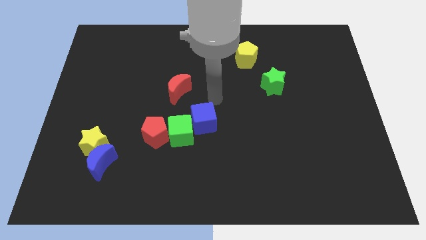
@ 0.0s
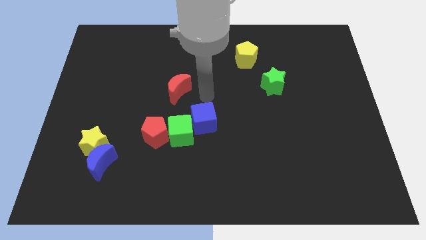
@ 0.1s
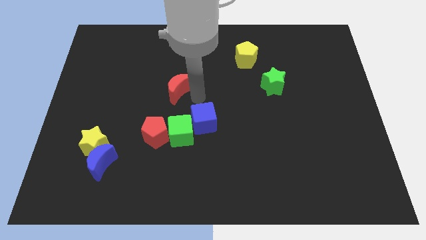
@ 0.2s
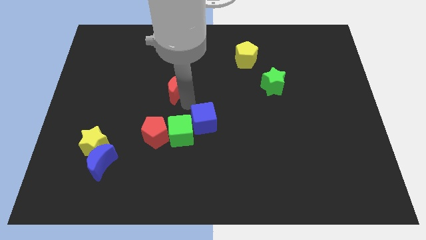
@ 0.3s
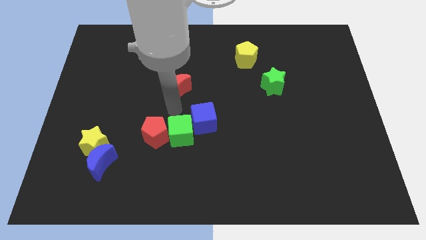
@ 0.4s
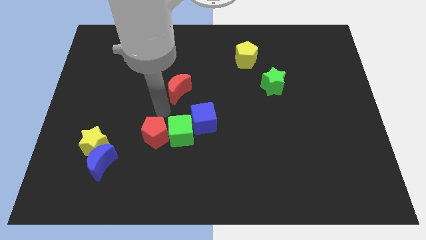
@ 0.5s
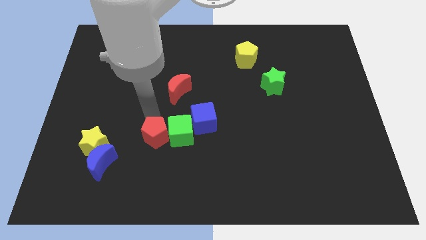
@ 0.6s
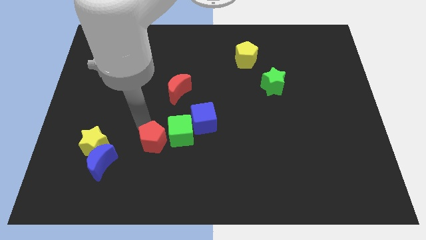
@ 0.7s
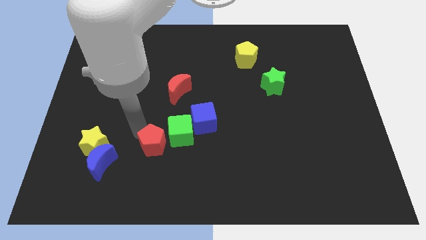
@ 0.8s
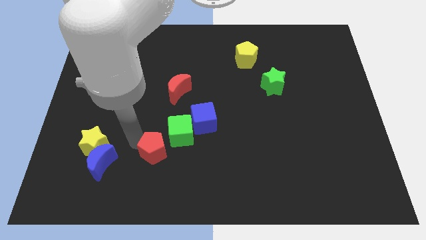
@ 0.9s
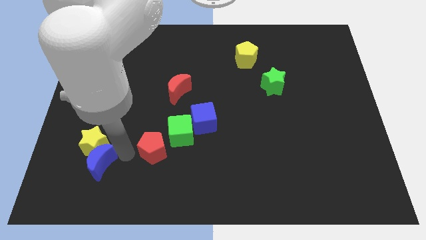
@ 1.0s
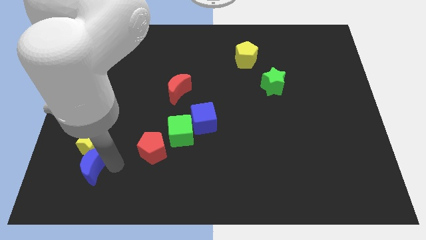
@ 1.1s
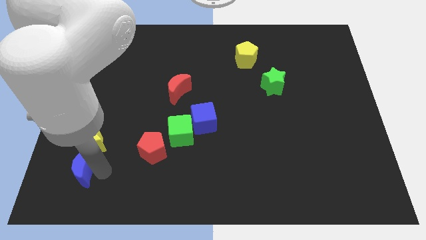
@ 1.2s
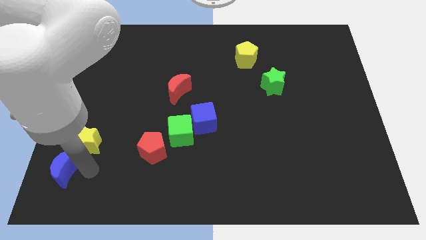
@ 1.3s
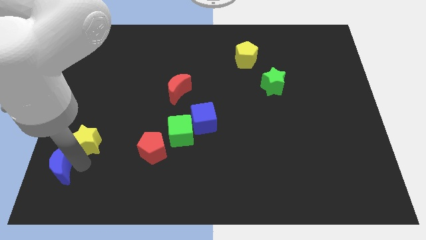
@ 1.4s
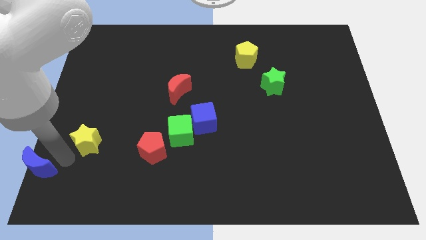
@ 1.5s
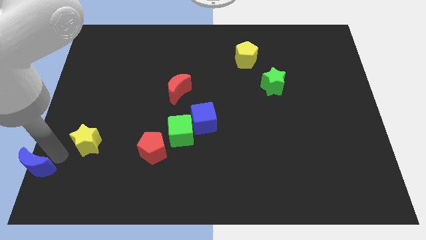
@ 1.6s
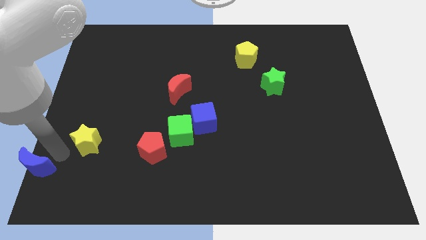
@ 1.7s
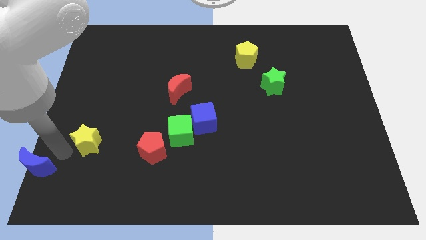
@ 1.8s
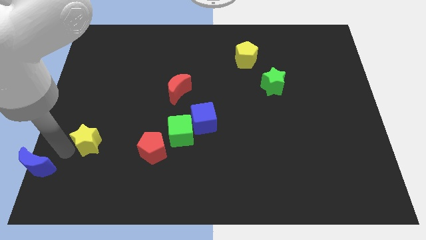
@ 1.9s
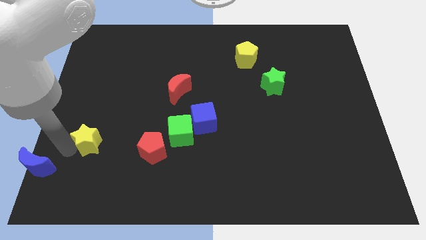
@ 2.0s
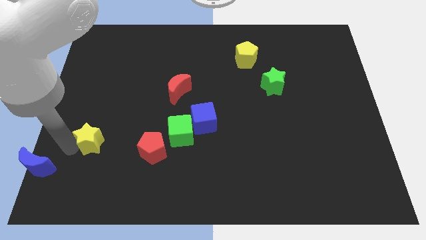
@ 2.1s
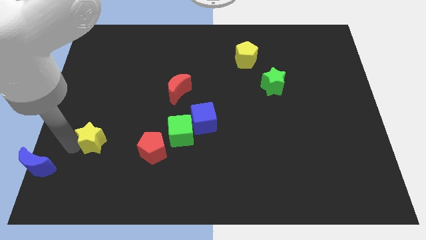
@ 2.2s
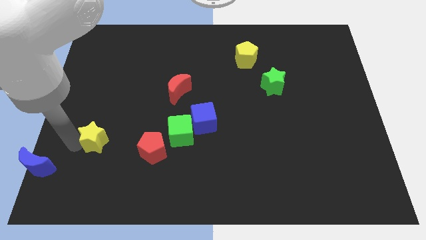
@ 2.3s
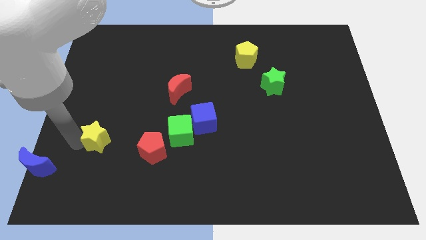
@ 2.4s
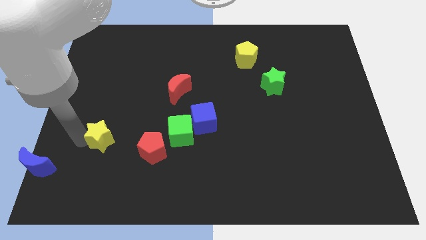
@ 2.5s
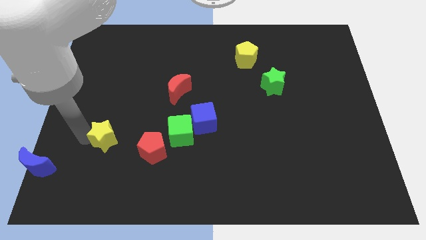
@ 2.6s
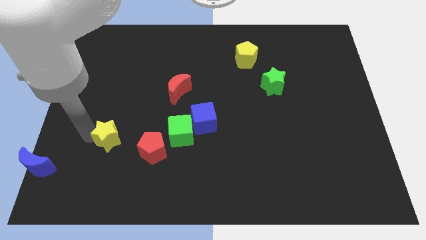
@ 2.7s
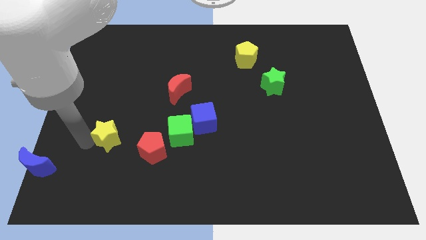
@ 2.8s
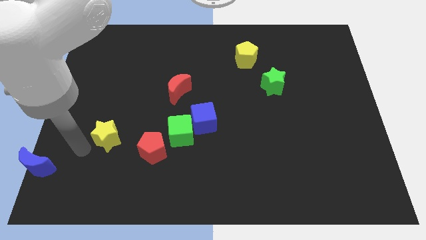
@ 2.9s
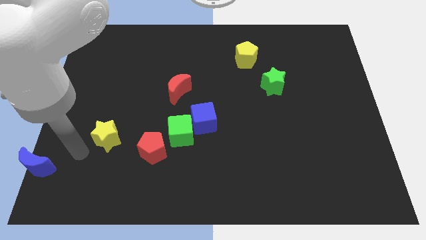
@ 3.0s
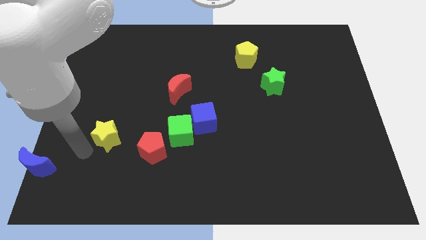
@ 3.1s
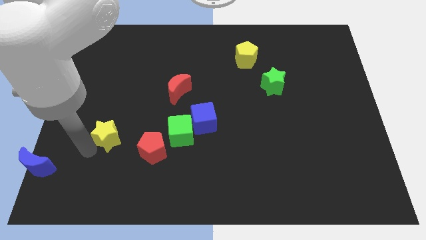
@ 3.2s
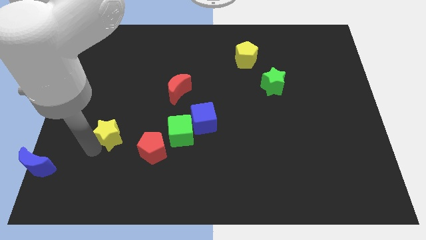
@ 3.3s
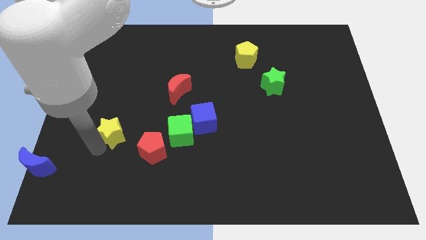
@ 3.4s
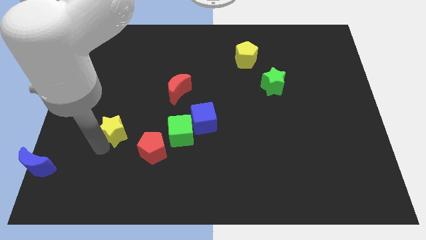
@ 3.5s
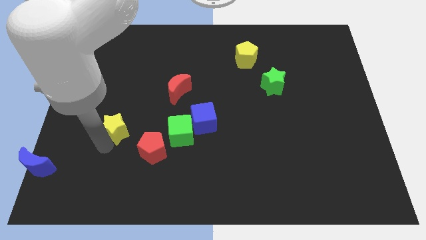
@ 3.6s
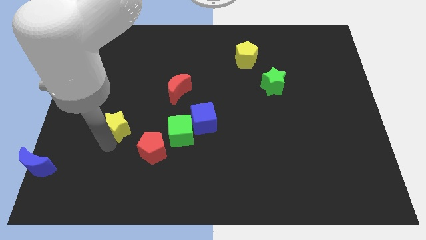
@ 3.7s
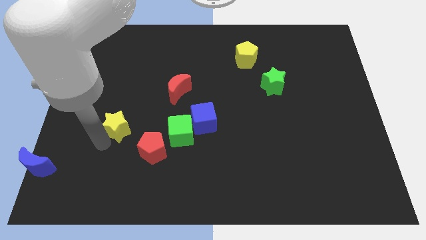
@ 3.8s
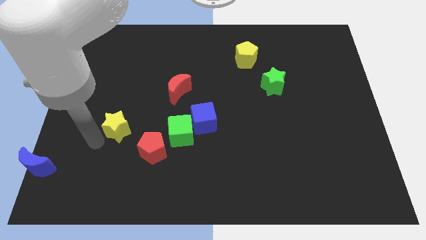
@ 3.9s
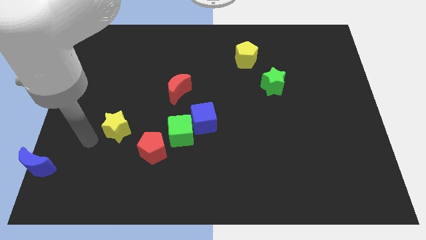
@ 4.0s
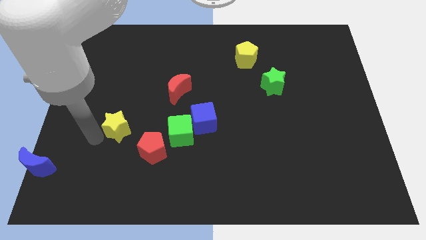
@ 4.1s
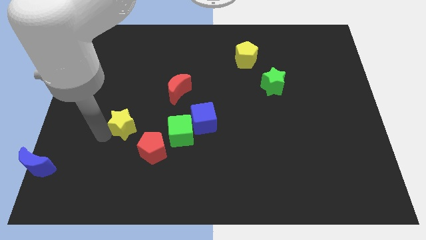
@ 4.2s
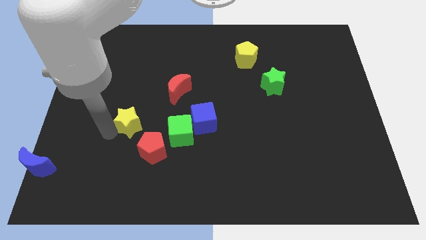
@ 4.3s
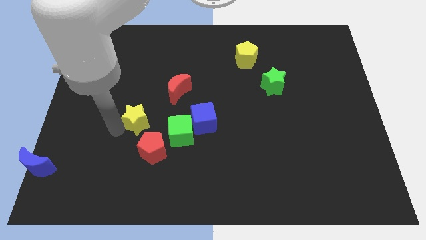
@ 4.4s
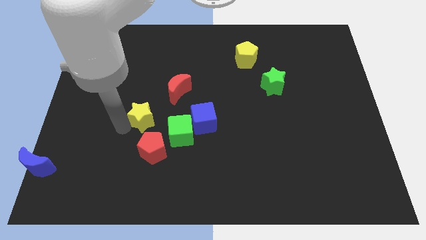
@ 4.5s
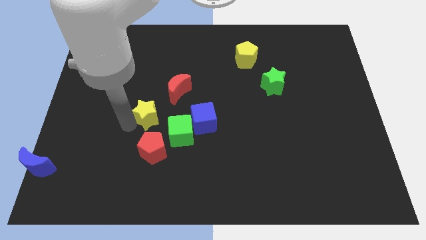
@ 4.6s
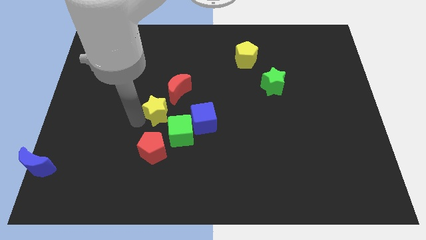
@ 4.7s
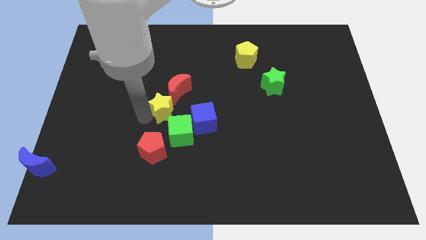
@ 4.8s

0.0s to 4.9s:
move the yellow star to the middle of the board

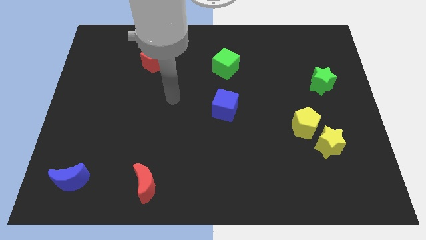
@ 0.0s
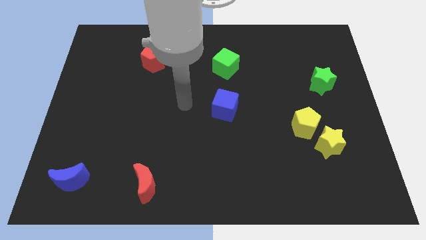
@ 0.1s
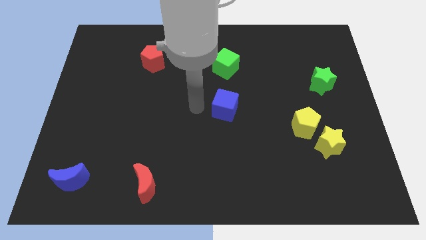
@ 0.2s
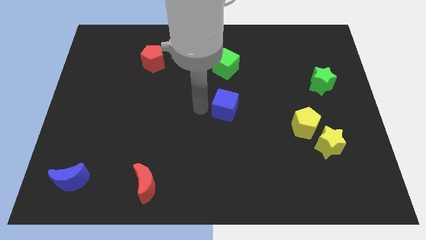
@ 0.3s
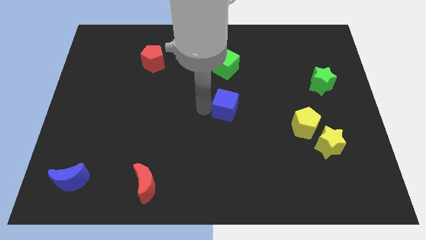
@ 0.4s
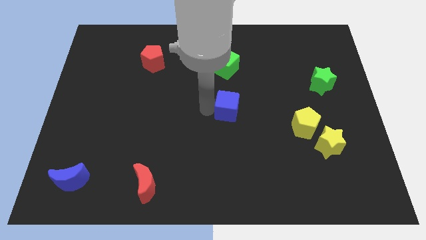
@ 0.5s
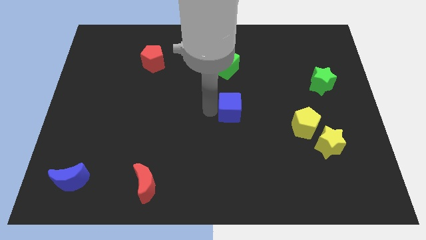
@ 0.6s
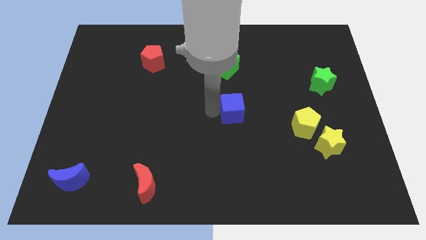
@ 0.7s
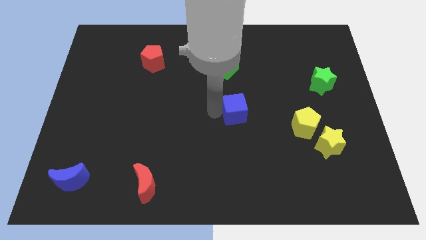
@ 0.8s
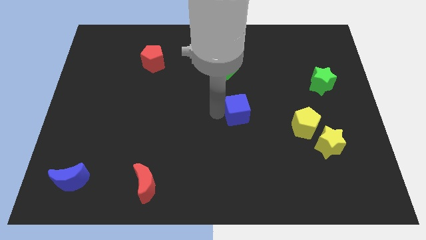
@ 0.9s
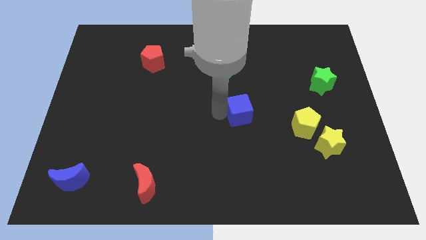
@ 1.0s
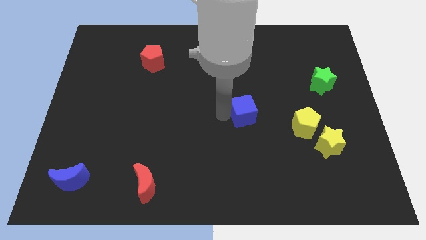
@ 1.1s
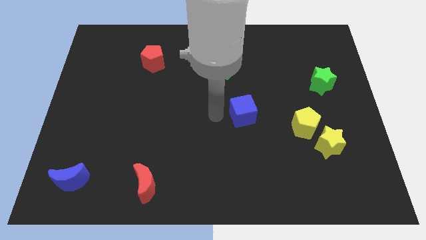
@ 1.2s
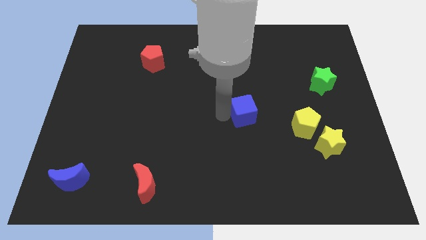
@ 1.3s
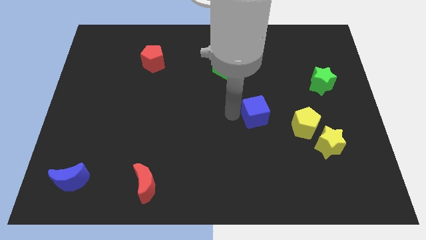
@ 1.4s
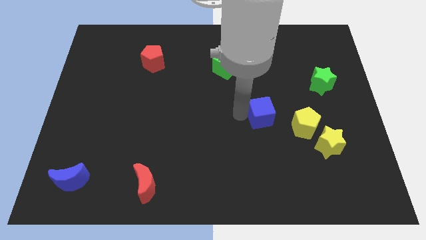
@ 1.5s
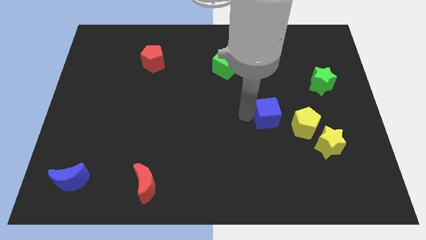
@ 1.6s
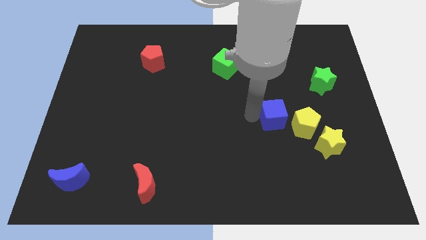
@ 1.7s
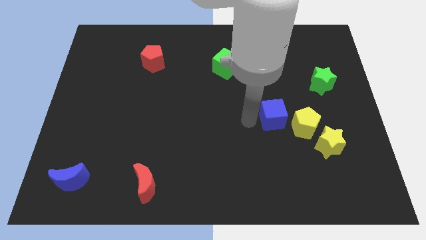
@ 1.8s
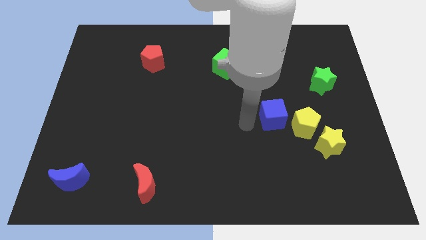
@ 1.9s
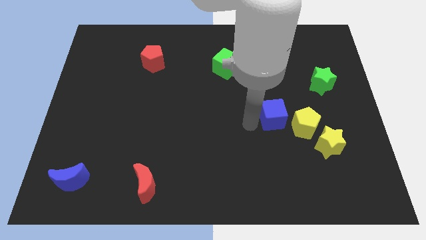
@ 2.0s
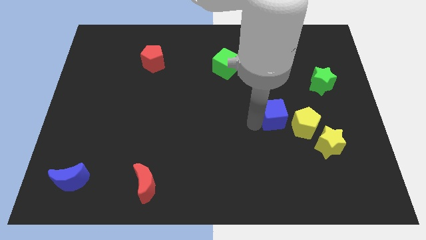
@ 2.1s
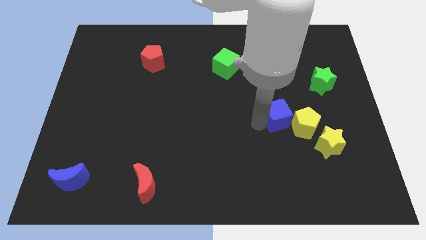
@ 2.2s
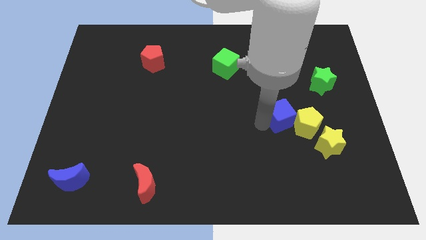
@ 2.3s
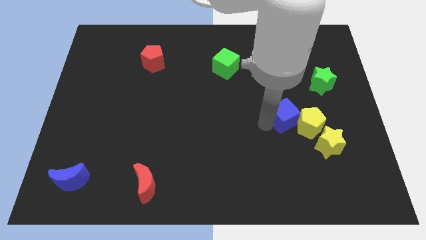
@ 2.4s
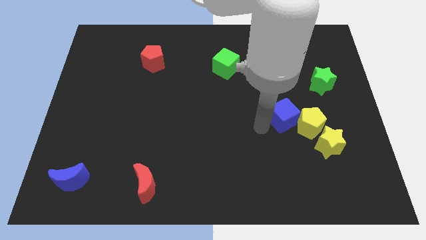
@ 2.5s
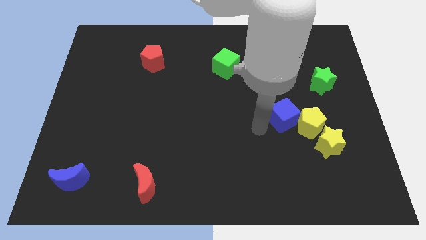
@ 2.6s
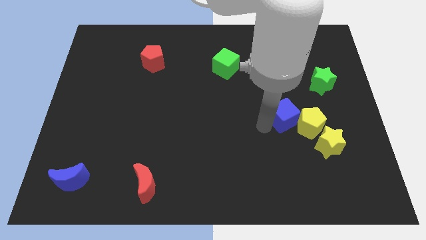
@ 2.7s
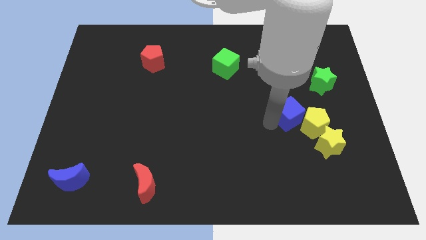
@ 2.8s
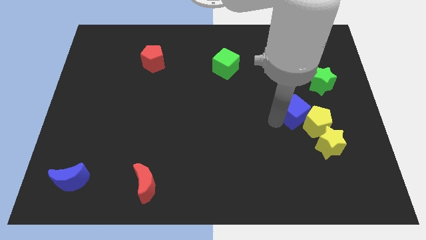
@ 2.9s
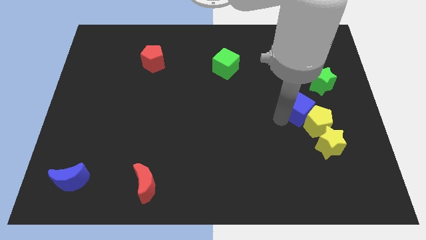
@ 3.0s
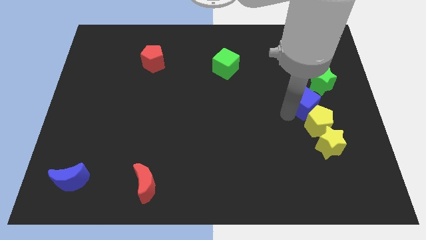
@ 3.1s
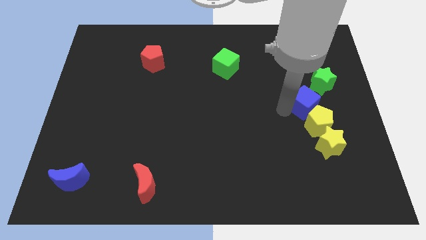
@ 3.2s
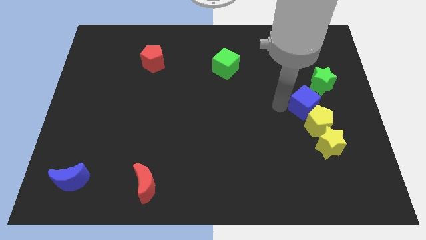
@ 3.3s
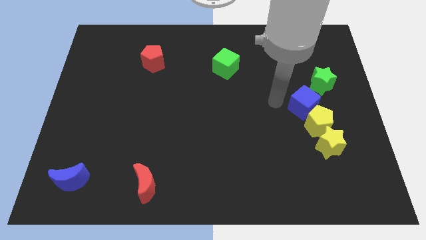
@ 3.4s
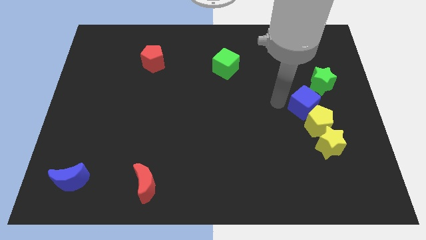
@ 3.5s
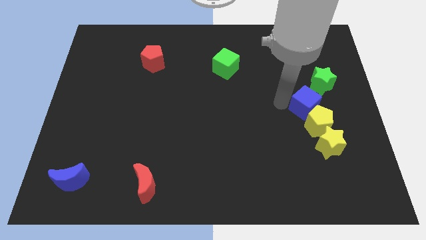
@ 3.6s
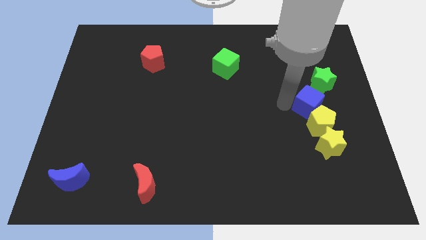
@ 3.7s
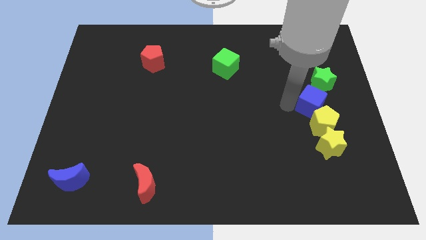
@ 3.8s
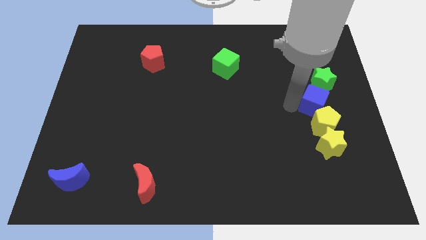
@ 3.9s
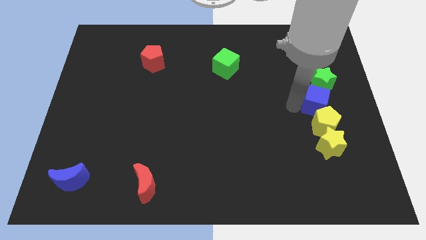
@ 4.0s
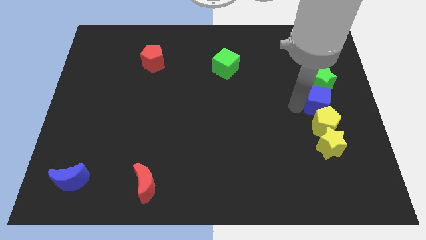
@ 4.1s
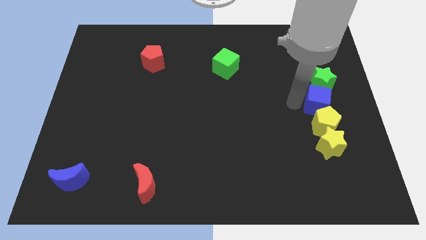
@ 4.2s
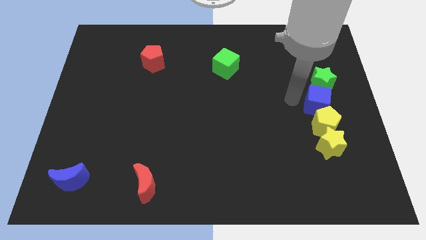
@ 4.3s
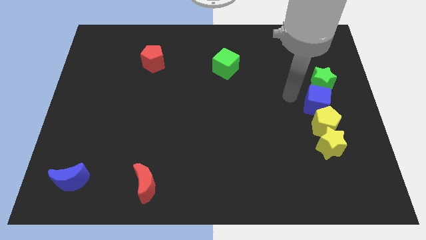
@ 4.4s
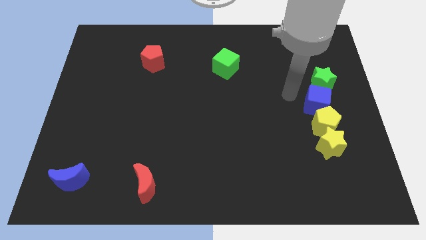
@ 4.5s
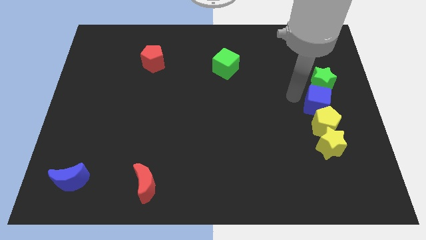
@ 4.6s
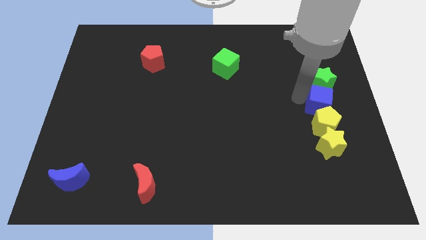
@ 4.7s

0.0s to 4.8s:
push the blue cube to the right side
